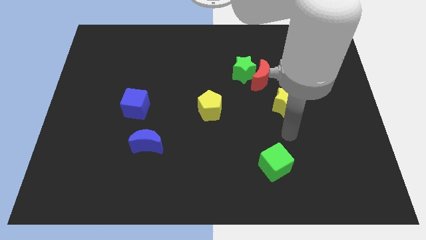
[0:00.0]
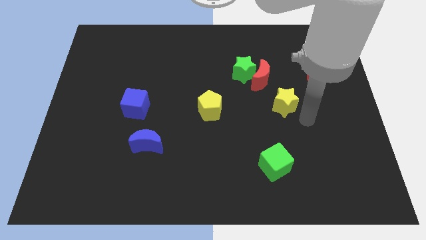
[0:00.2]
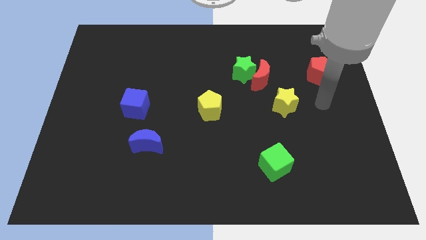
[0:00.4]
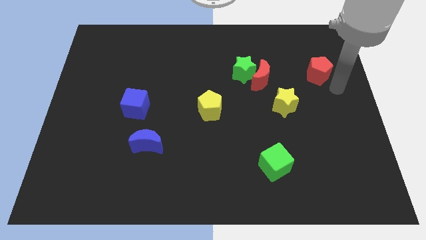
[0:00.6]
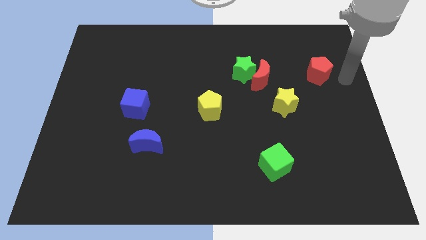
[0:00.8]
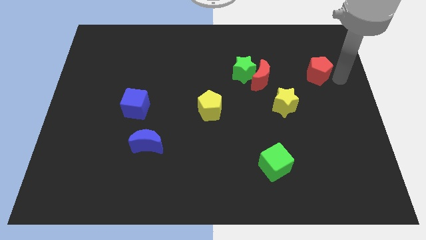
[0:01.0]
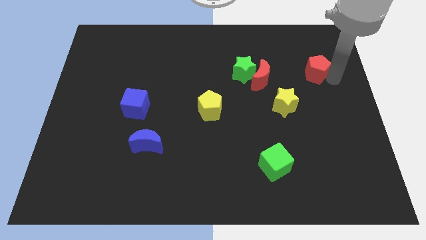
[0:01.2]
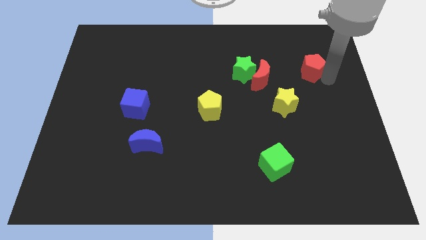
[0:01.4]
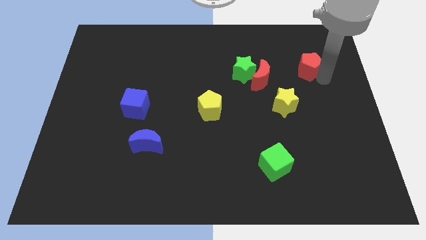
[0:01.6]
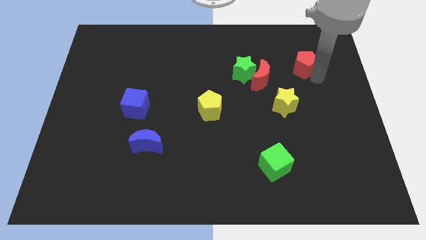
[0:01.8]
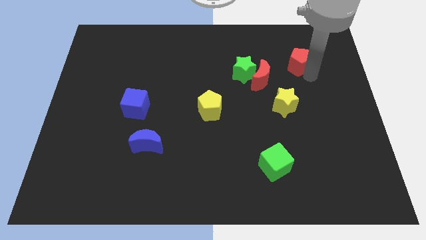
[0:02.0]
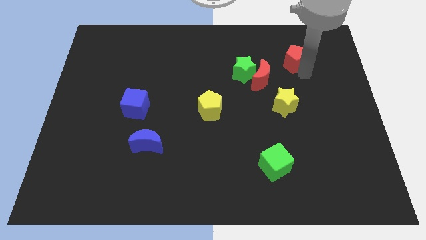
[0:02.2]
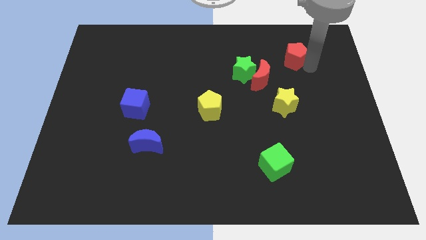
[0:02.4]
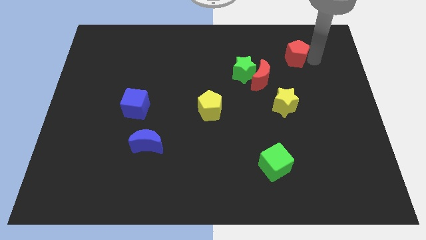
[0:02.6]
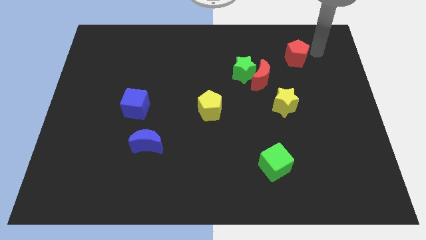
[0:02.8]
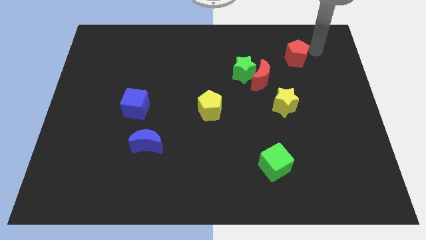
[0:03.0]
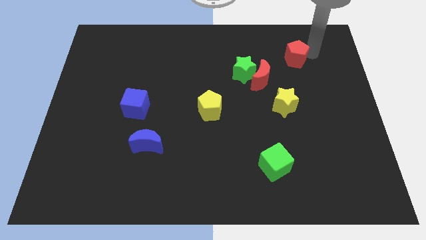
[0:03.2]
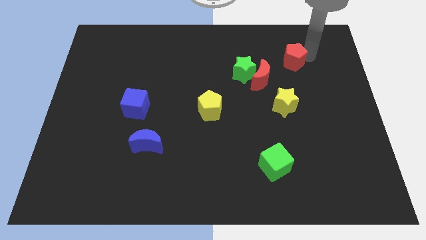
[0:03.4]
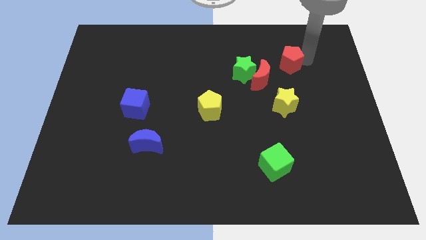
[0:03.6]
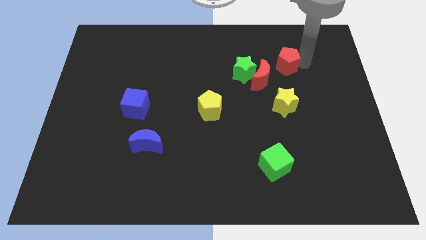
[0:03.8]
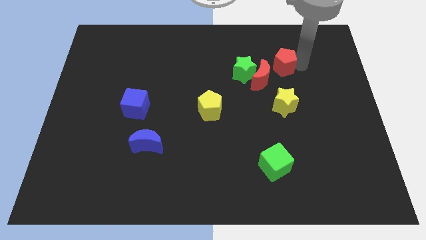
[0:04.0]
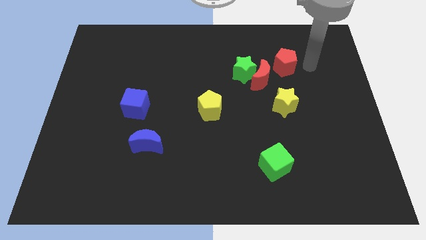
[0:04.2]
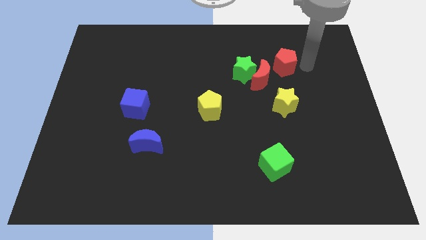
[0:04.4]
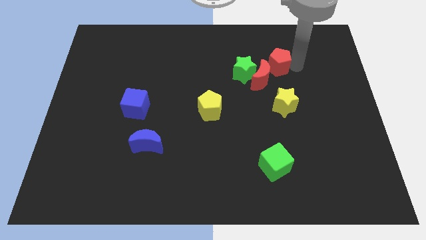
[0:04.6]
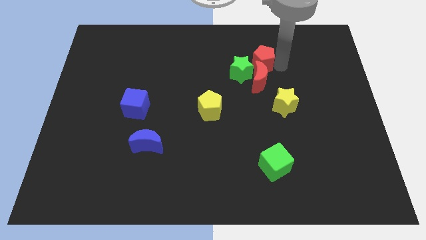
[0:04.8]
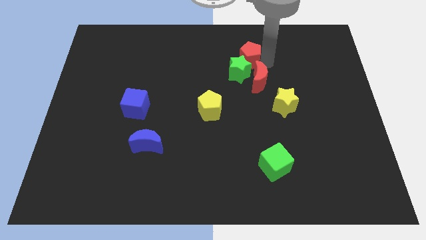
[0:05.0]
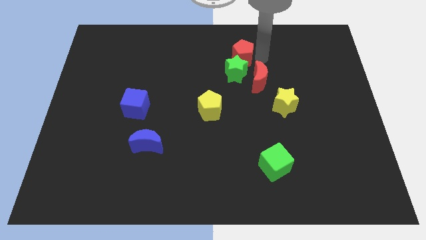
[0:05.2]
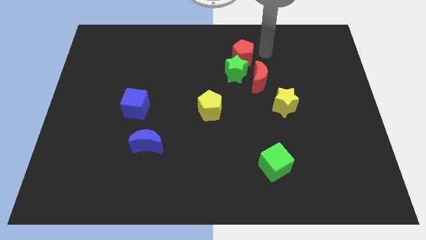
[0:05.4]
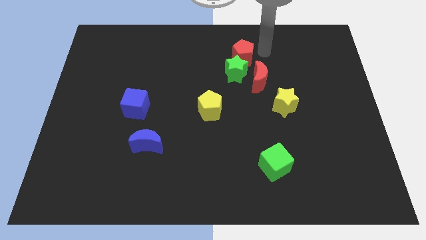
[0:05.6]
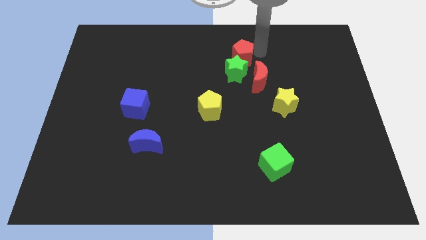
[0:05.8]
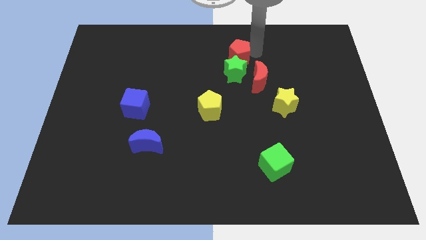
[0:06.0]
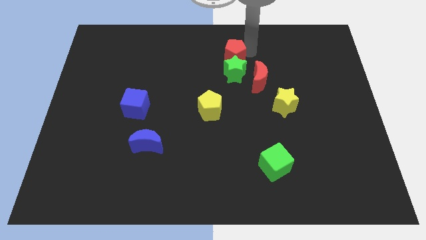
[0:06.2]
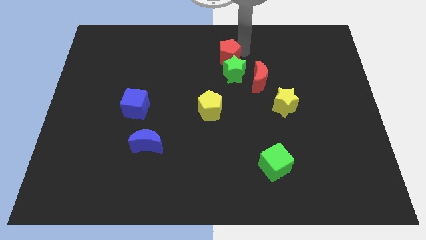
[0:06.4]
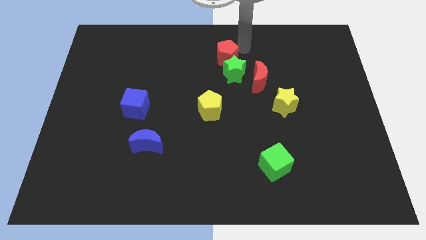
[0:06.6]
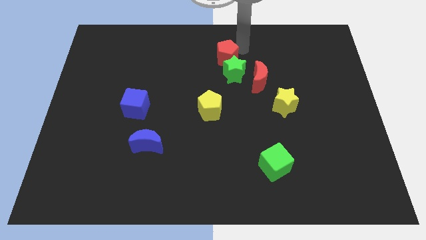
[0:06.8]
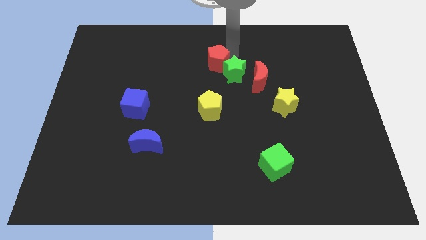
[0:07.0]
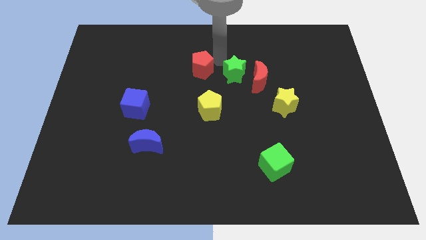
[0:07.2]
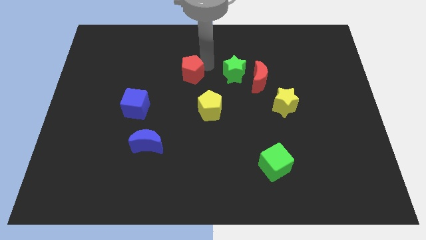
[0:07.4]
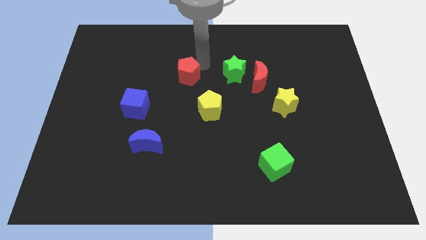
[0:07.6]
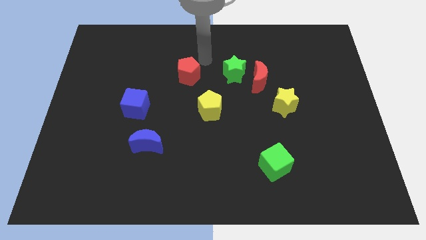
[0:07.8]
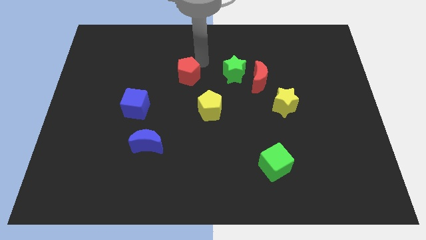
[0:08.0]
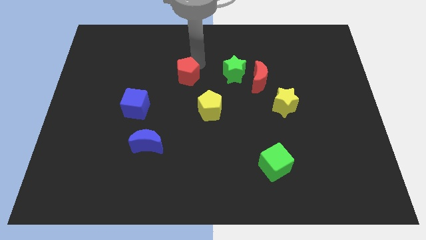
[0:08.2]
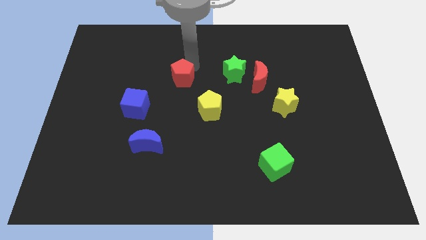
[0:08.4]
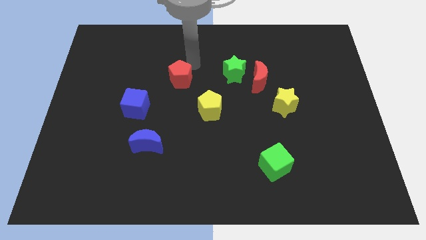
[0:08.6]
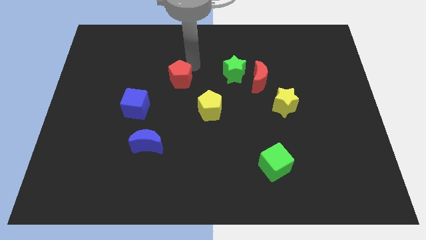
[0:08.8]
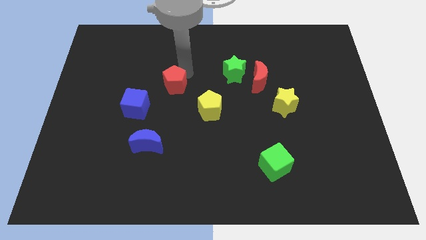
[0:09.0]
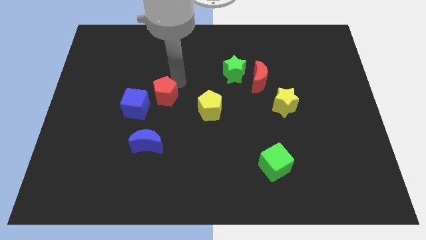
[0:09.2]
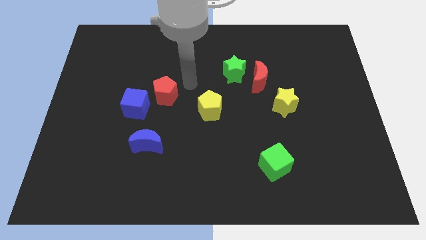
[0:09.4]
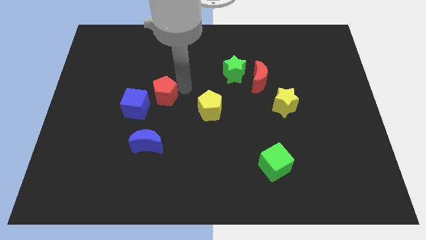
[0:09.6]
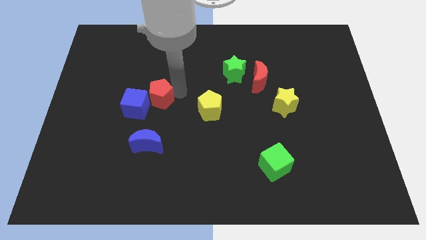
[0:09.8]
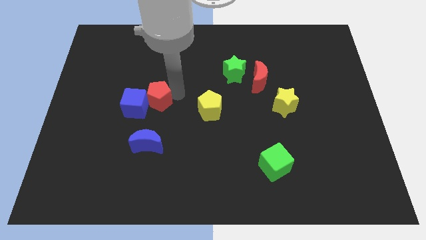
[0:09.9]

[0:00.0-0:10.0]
push the red pentagon to the blue cube

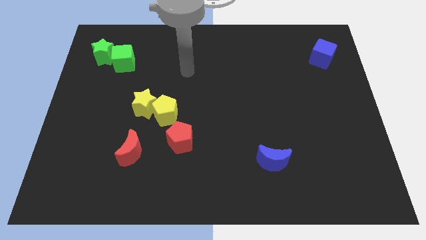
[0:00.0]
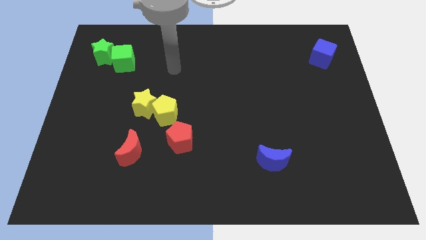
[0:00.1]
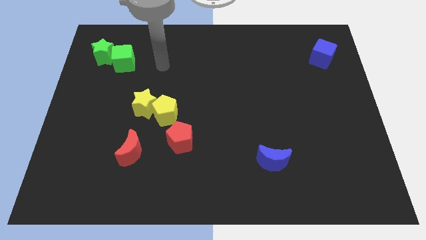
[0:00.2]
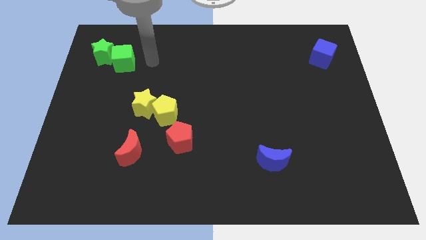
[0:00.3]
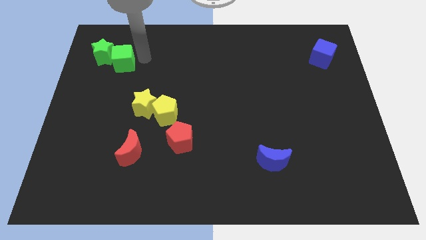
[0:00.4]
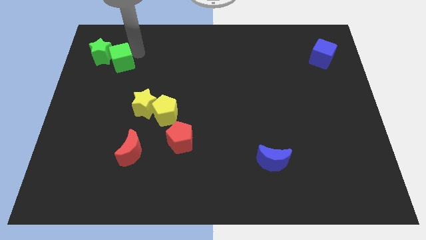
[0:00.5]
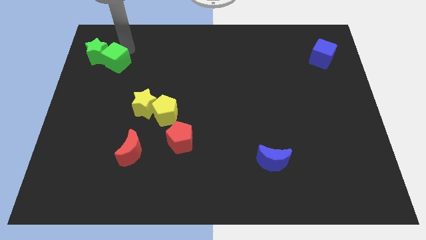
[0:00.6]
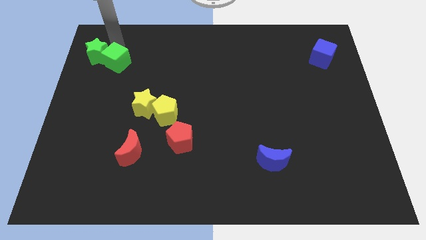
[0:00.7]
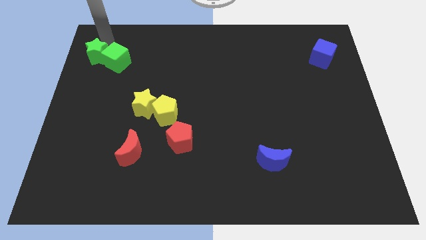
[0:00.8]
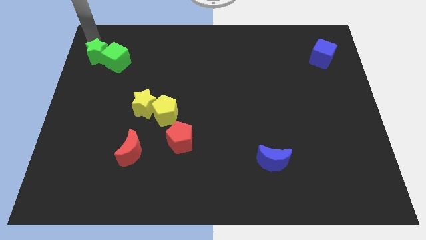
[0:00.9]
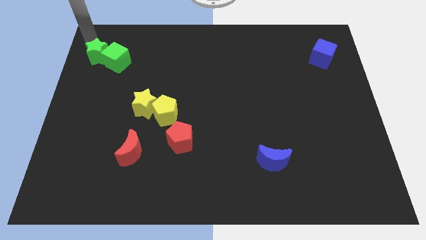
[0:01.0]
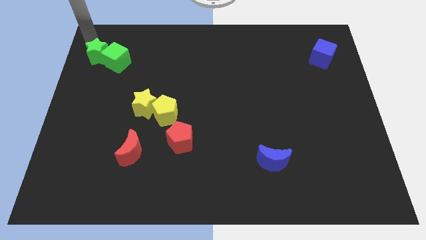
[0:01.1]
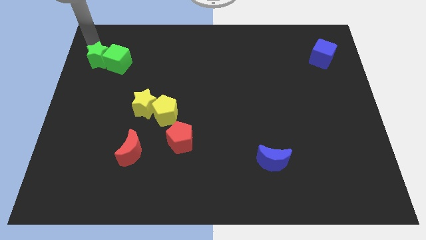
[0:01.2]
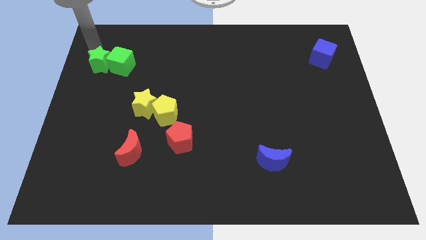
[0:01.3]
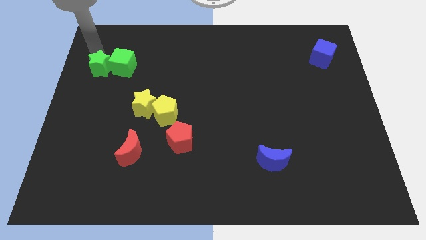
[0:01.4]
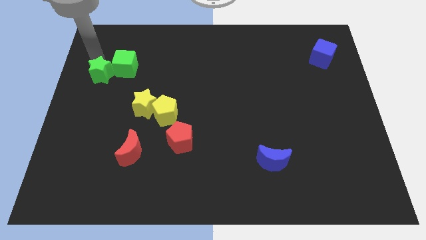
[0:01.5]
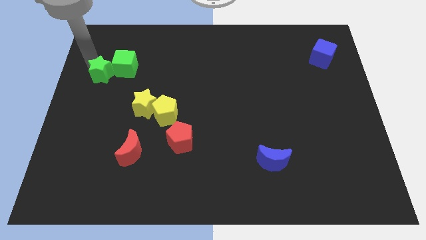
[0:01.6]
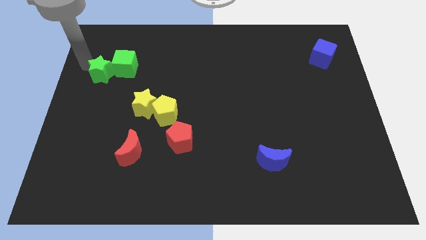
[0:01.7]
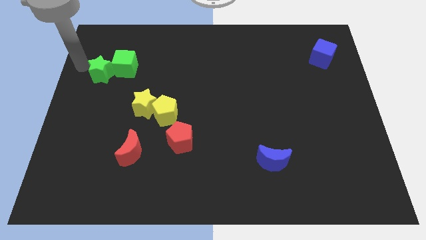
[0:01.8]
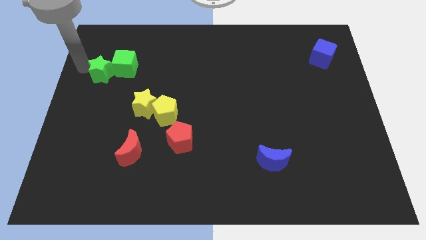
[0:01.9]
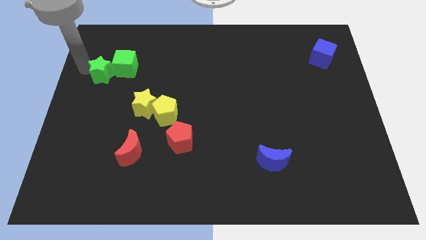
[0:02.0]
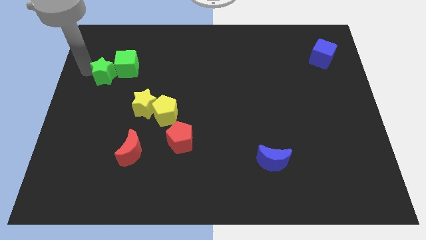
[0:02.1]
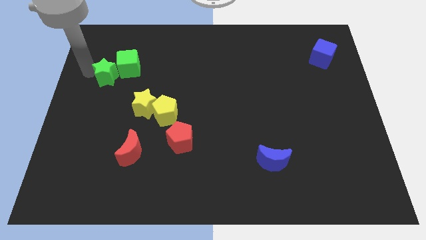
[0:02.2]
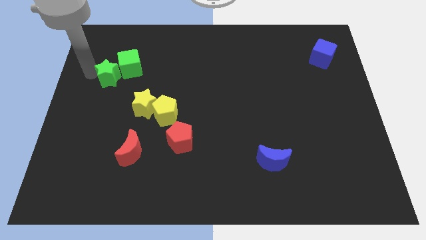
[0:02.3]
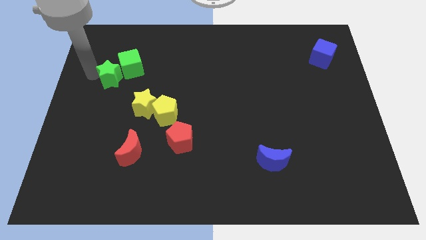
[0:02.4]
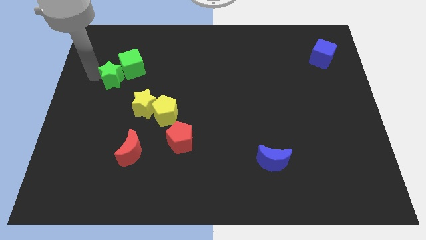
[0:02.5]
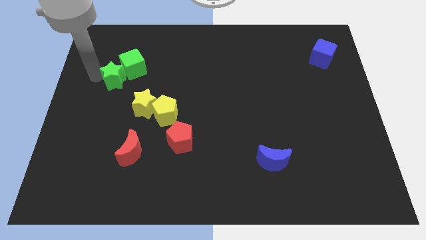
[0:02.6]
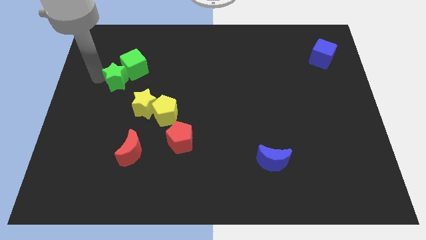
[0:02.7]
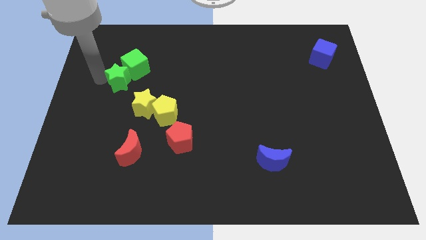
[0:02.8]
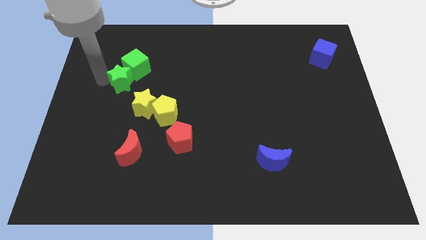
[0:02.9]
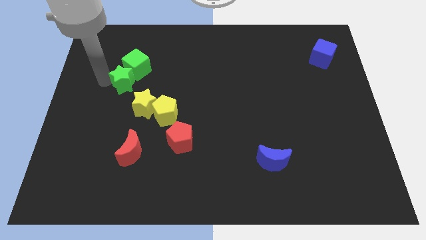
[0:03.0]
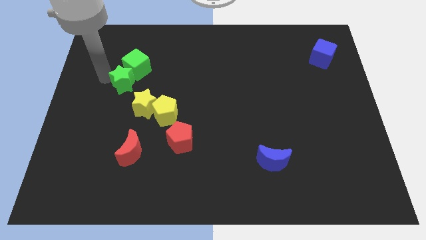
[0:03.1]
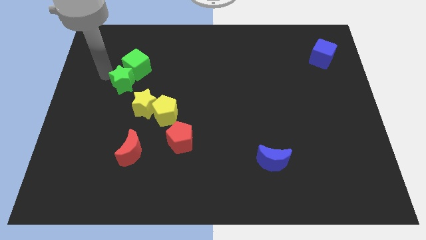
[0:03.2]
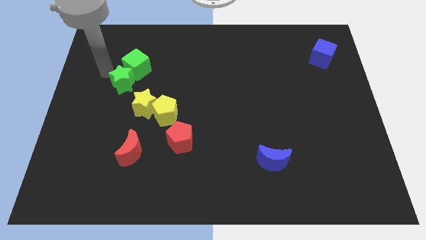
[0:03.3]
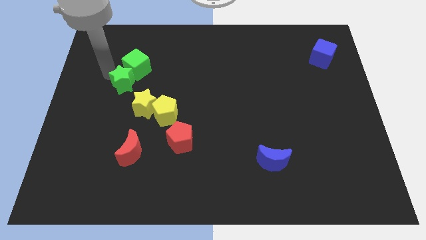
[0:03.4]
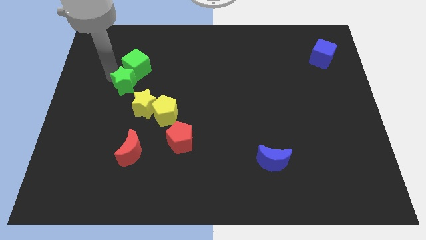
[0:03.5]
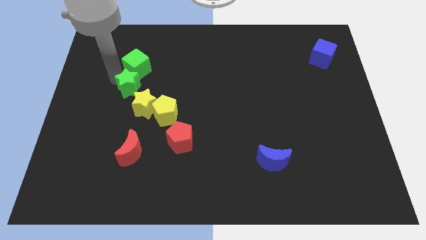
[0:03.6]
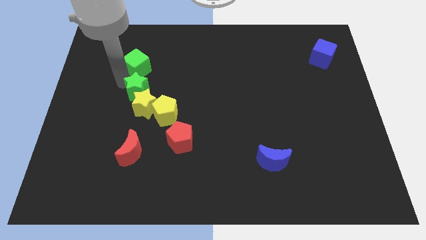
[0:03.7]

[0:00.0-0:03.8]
push the green star towards the yellow star
